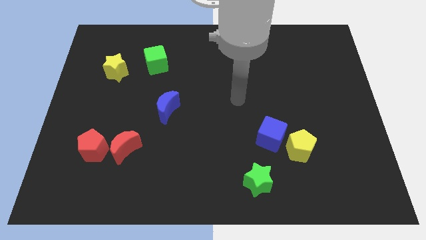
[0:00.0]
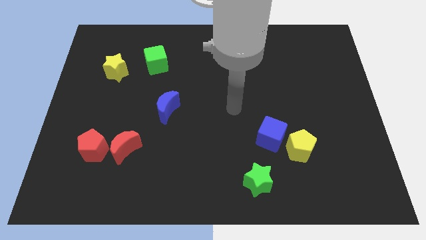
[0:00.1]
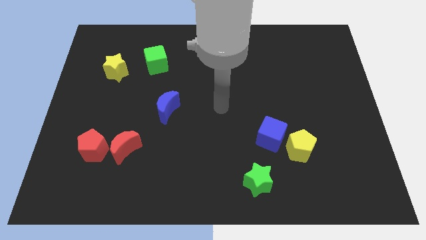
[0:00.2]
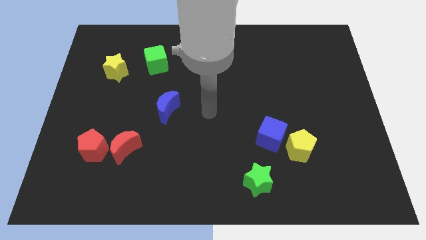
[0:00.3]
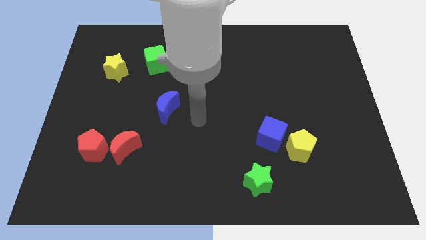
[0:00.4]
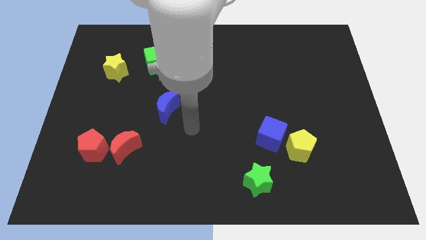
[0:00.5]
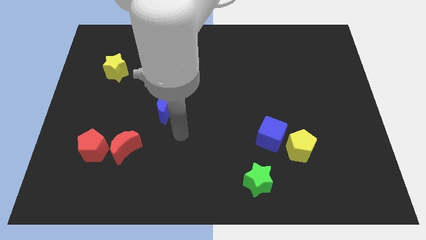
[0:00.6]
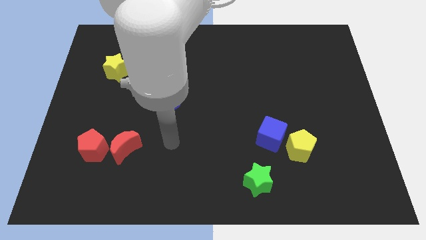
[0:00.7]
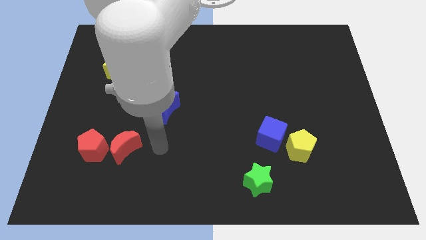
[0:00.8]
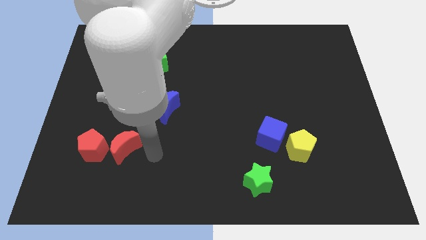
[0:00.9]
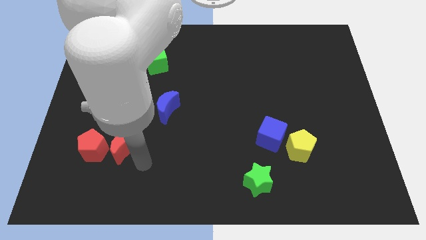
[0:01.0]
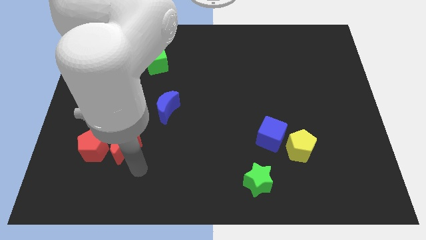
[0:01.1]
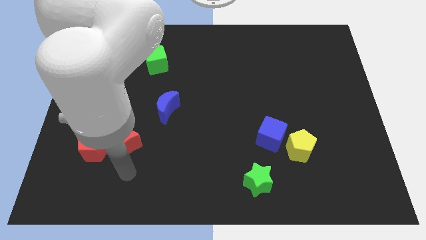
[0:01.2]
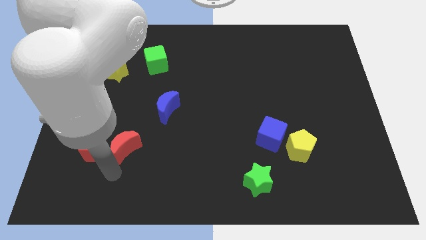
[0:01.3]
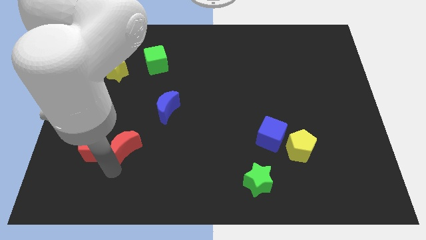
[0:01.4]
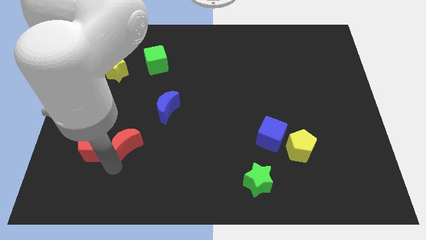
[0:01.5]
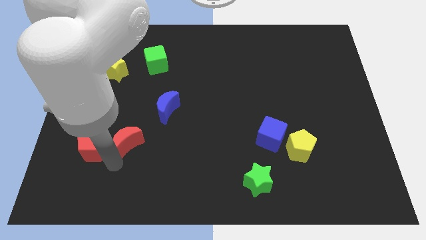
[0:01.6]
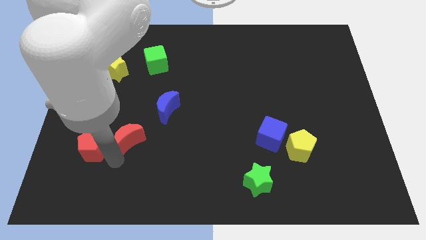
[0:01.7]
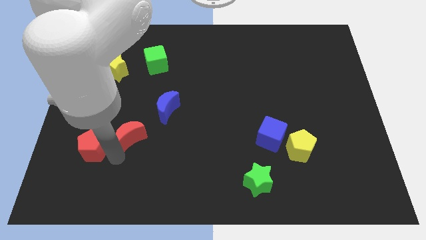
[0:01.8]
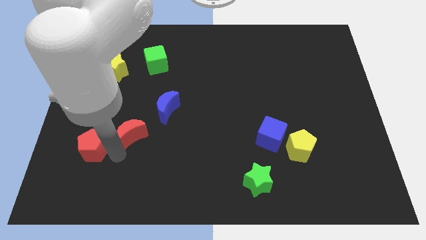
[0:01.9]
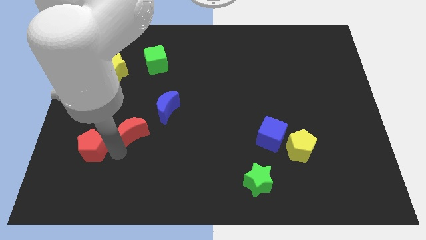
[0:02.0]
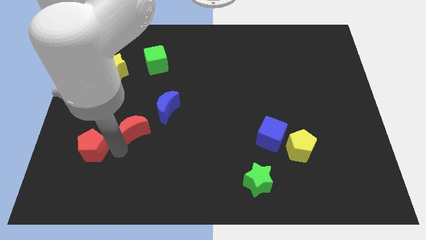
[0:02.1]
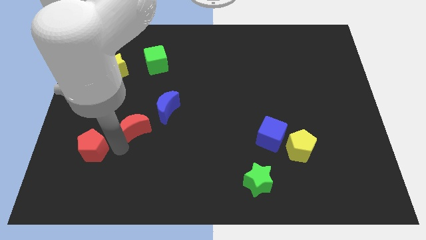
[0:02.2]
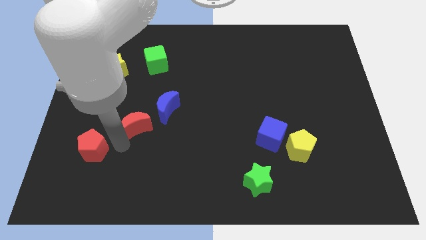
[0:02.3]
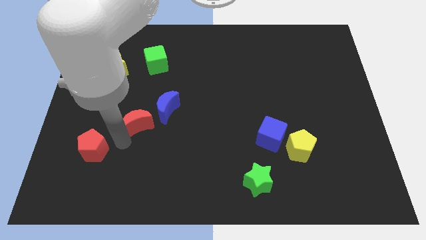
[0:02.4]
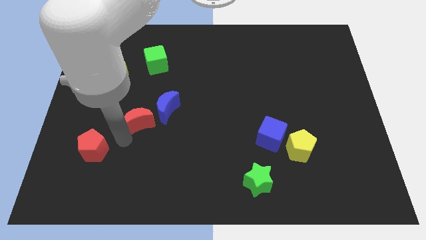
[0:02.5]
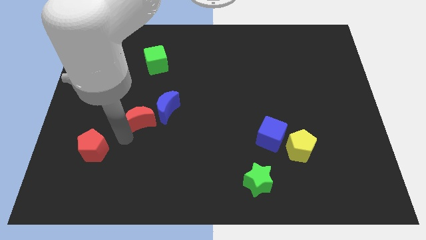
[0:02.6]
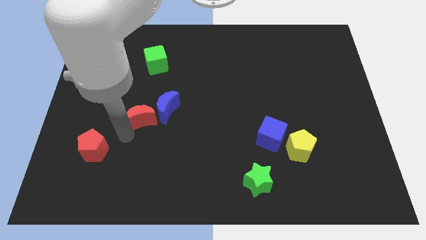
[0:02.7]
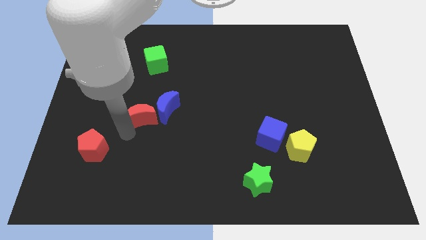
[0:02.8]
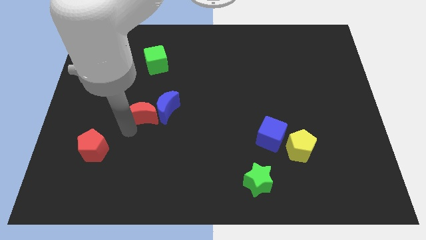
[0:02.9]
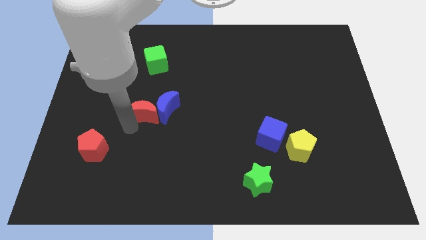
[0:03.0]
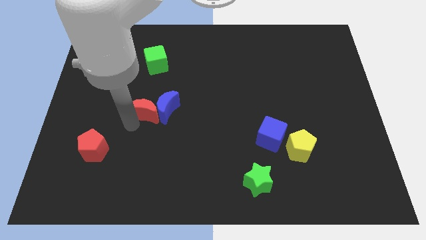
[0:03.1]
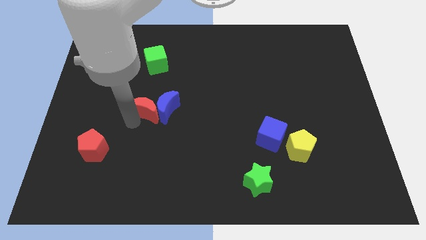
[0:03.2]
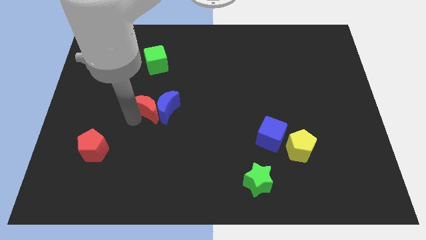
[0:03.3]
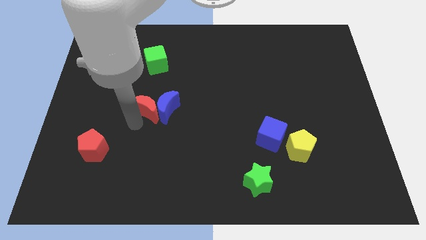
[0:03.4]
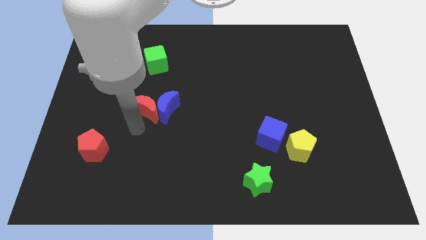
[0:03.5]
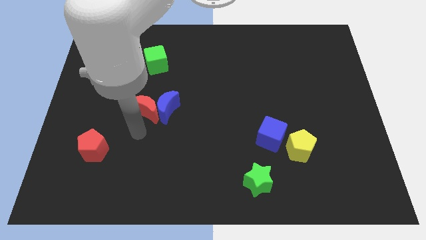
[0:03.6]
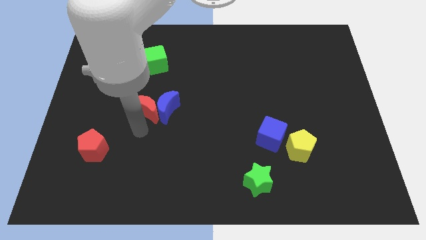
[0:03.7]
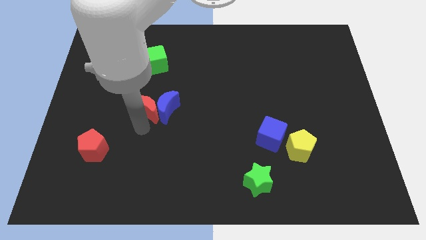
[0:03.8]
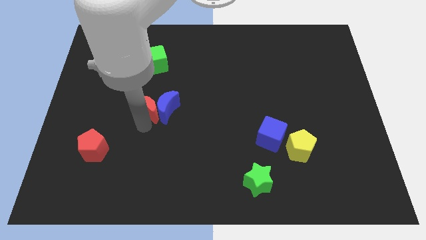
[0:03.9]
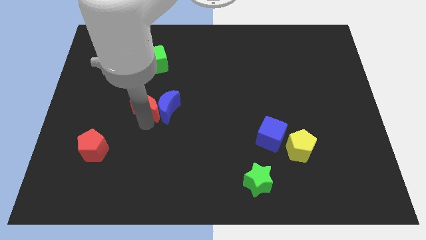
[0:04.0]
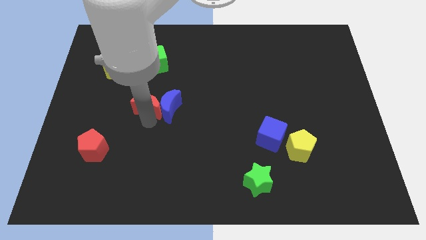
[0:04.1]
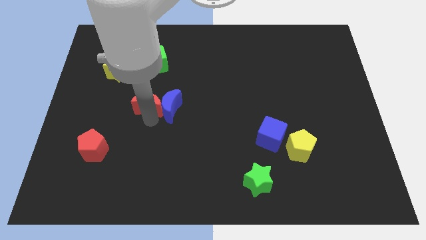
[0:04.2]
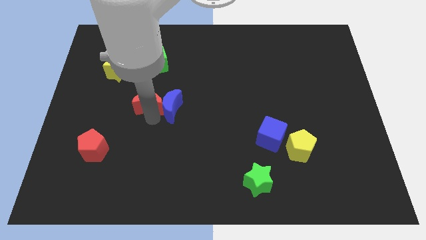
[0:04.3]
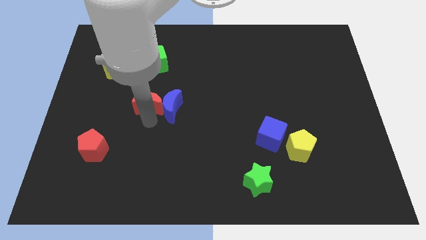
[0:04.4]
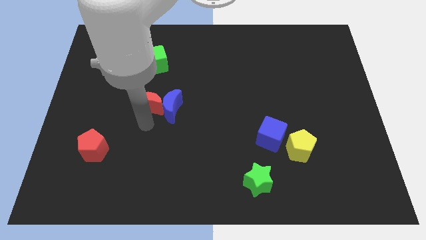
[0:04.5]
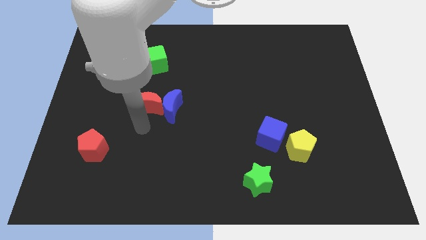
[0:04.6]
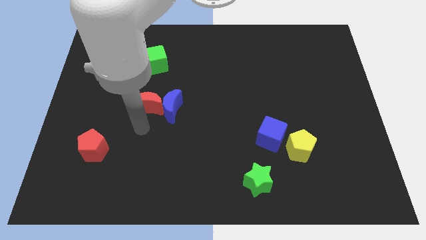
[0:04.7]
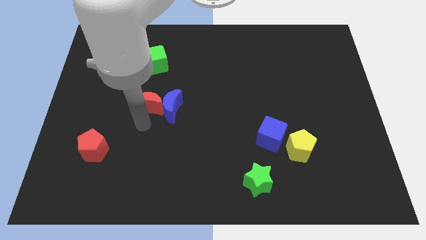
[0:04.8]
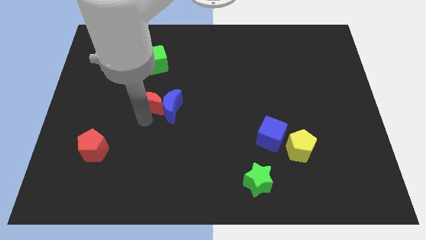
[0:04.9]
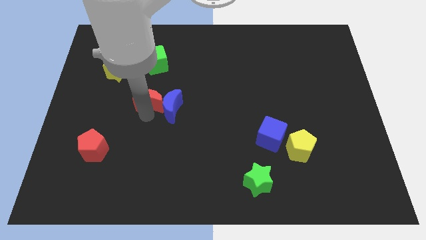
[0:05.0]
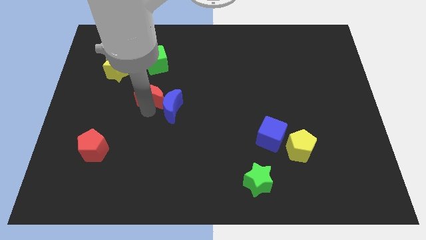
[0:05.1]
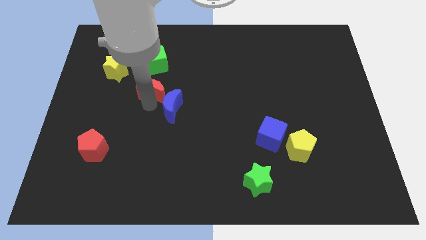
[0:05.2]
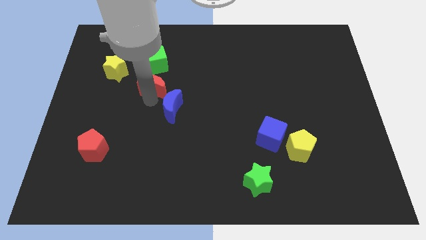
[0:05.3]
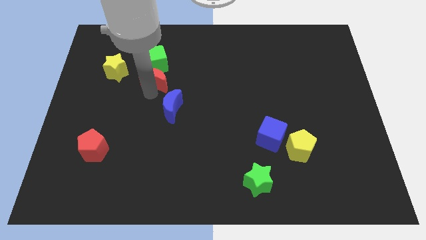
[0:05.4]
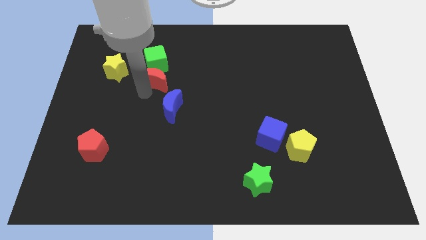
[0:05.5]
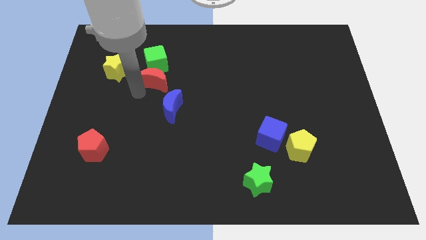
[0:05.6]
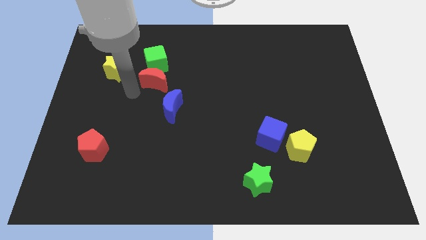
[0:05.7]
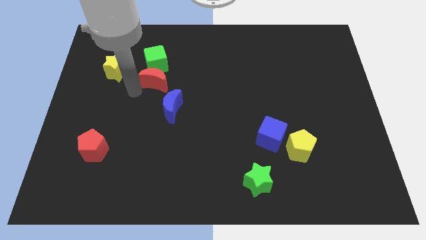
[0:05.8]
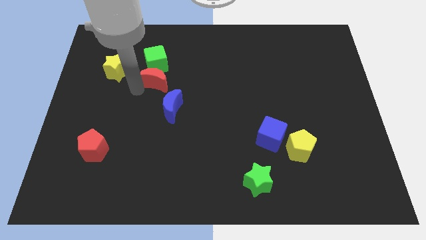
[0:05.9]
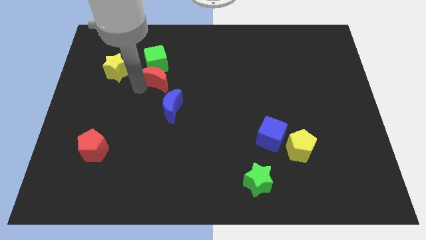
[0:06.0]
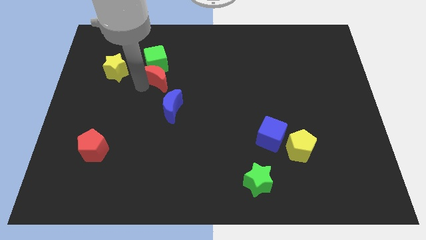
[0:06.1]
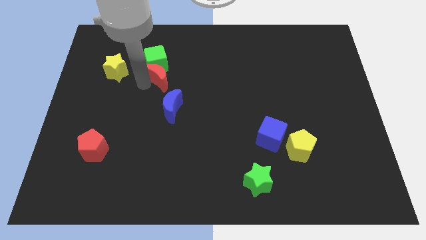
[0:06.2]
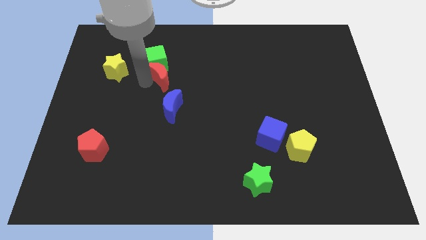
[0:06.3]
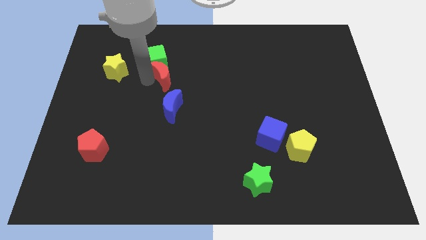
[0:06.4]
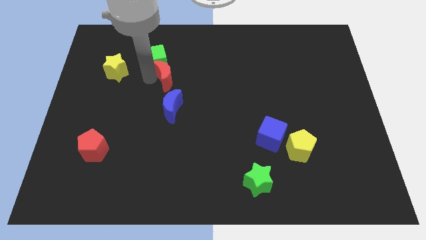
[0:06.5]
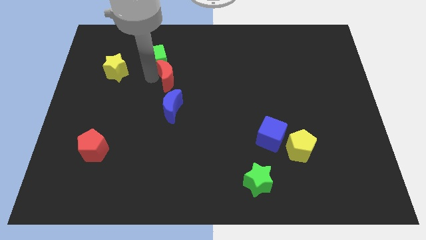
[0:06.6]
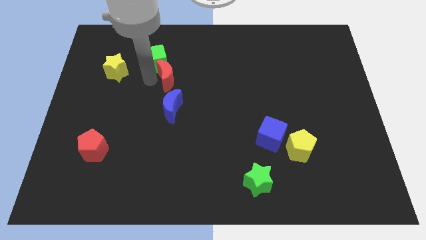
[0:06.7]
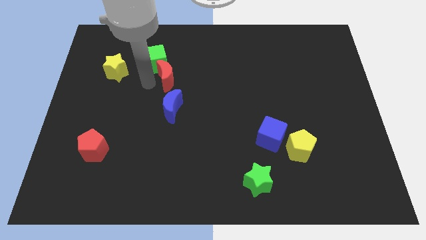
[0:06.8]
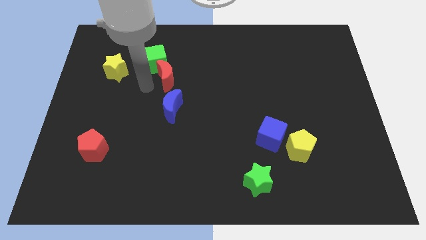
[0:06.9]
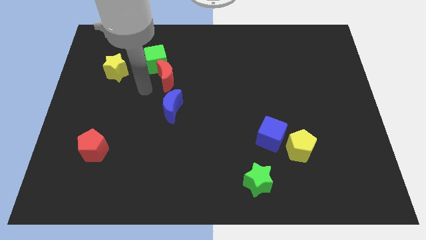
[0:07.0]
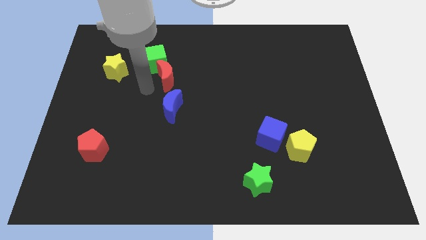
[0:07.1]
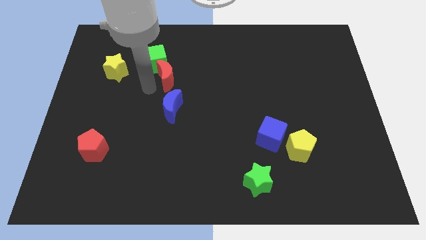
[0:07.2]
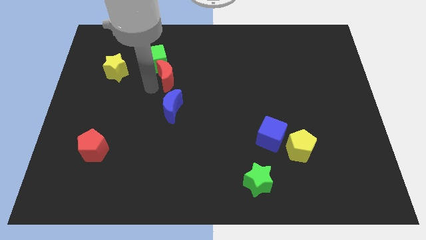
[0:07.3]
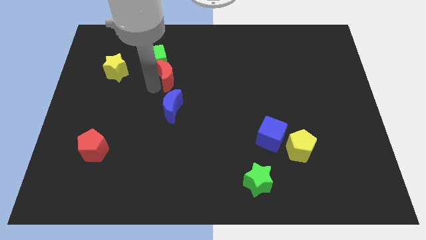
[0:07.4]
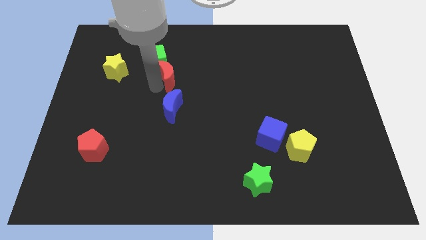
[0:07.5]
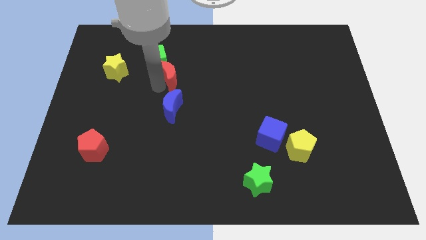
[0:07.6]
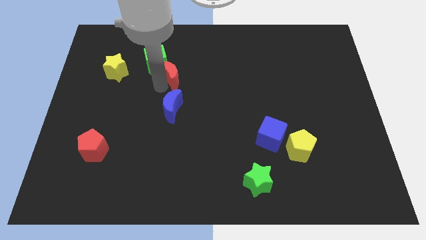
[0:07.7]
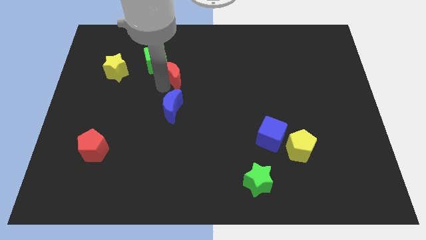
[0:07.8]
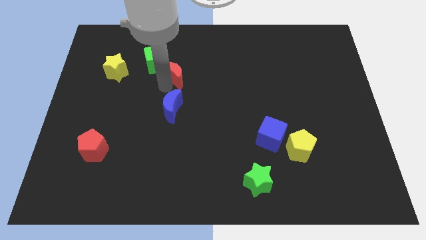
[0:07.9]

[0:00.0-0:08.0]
push the red moon to the right side of the green cube
